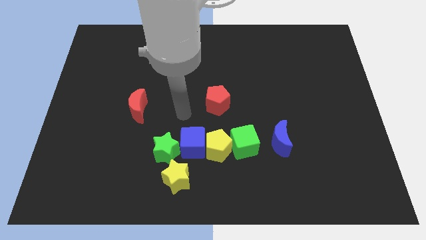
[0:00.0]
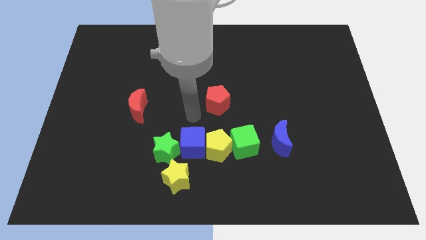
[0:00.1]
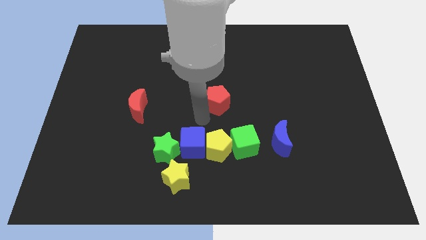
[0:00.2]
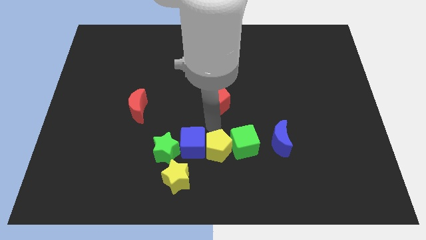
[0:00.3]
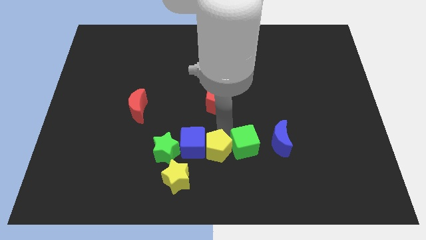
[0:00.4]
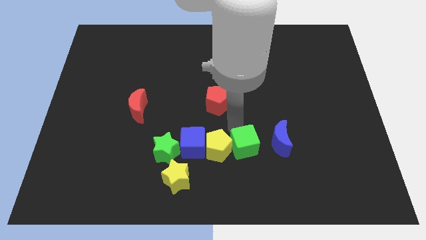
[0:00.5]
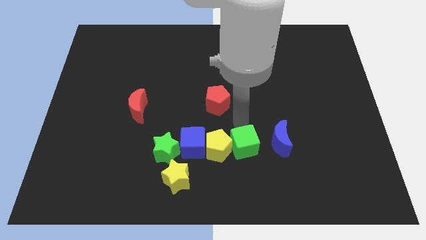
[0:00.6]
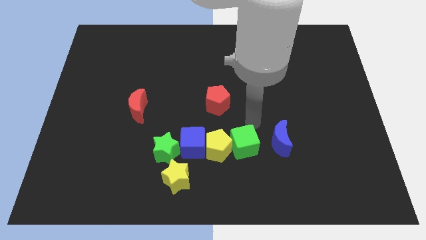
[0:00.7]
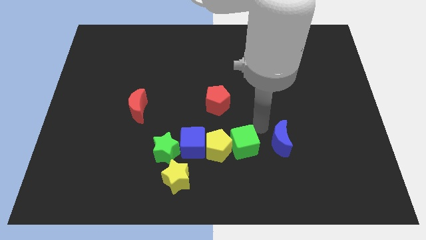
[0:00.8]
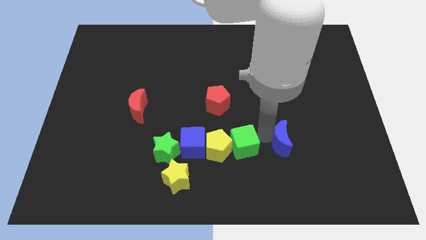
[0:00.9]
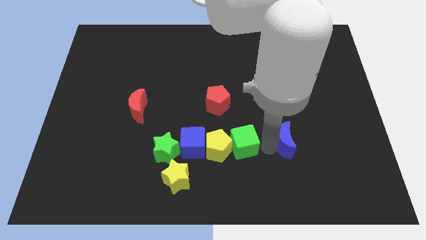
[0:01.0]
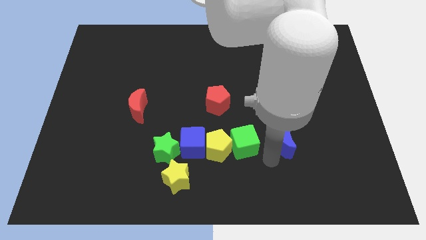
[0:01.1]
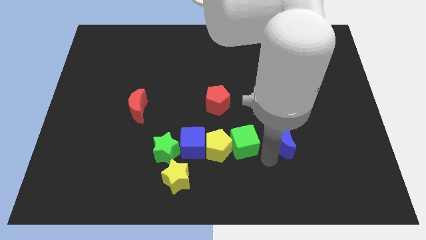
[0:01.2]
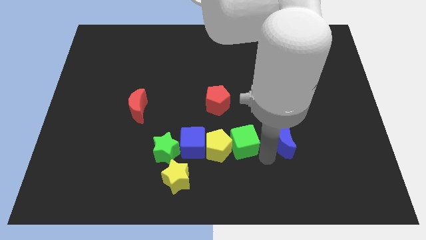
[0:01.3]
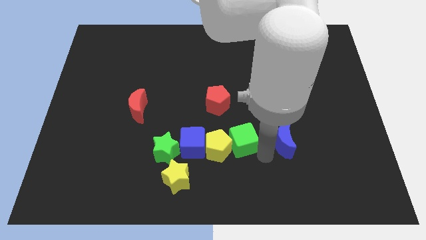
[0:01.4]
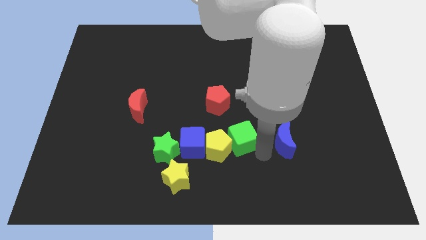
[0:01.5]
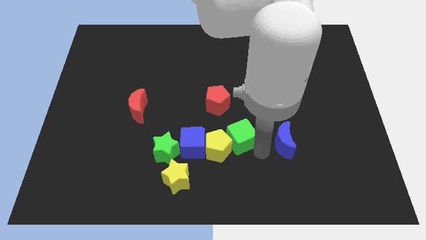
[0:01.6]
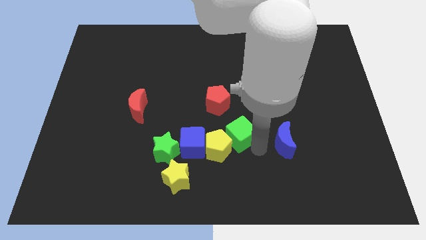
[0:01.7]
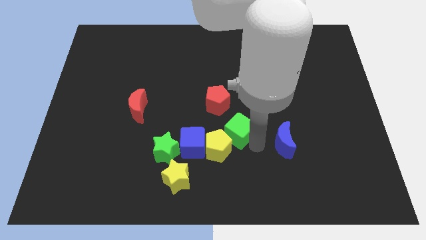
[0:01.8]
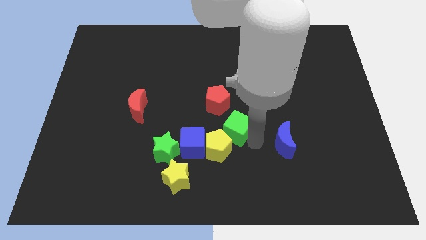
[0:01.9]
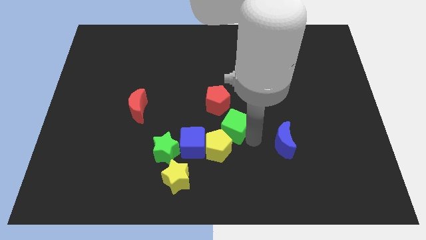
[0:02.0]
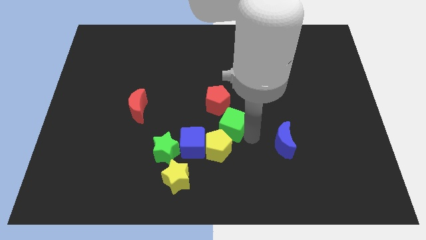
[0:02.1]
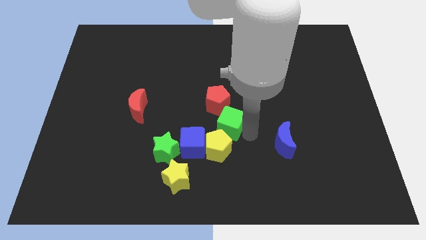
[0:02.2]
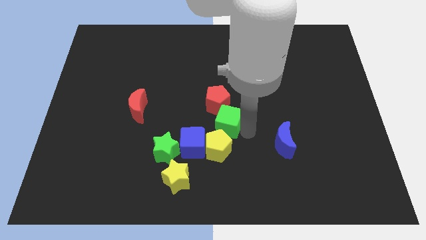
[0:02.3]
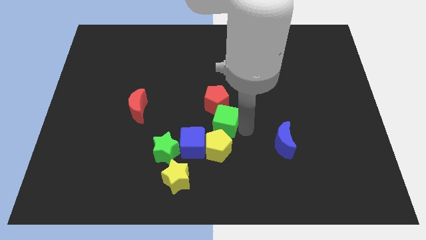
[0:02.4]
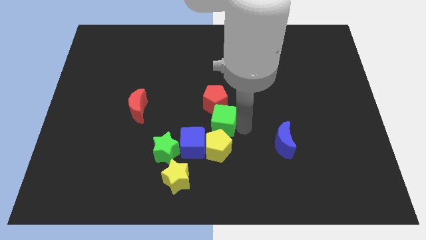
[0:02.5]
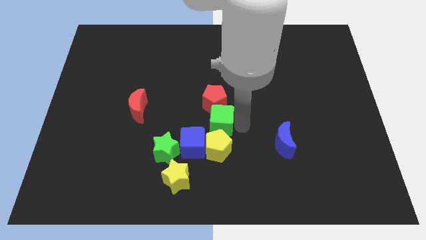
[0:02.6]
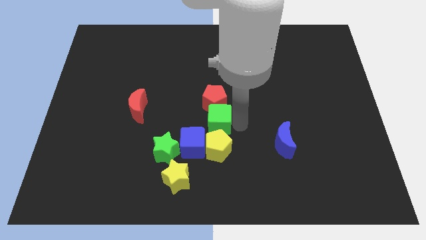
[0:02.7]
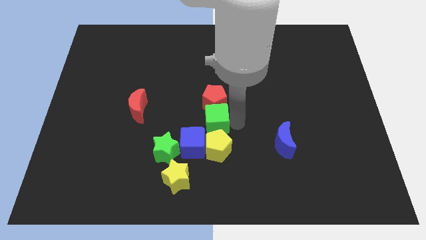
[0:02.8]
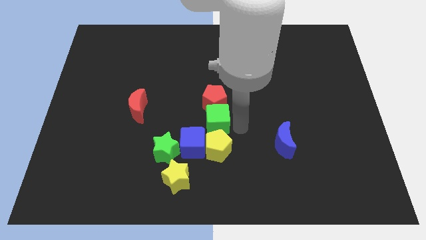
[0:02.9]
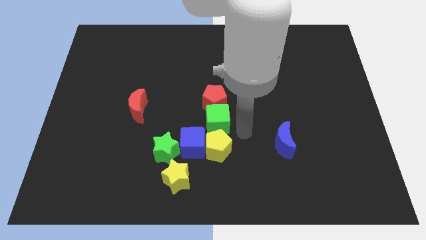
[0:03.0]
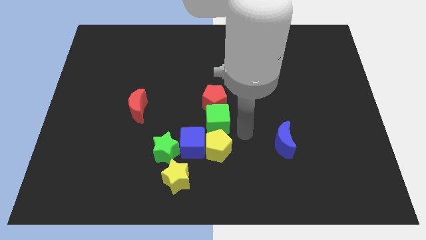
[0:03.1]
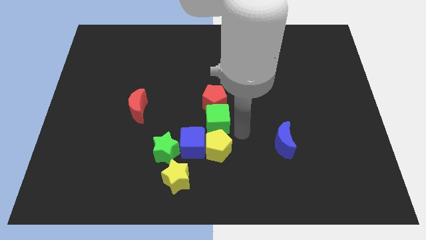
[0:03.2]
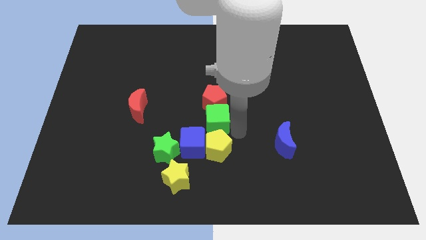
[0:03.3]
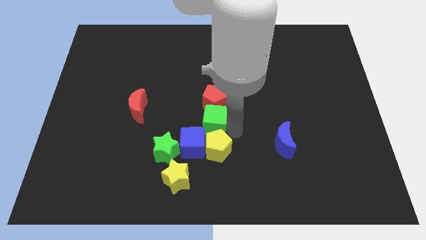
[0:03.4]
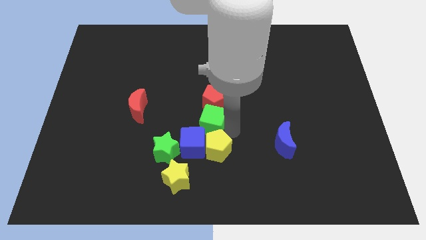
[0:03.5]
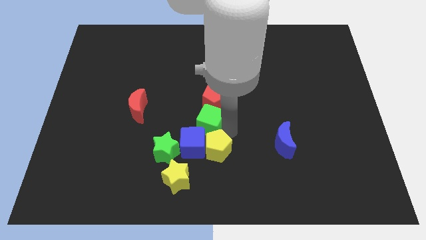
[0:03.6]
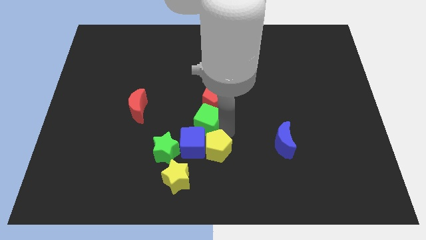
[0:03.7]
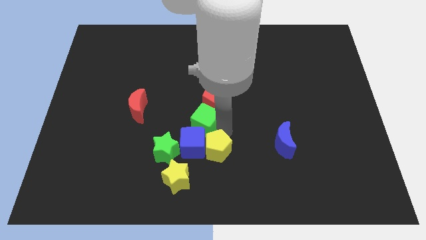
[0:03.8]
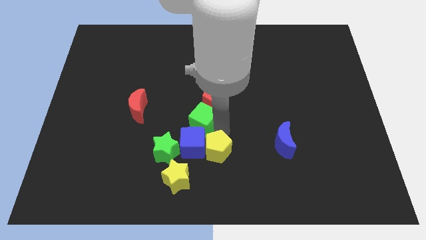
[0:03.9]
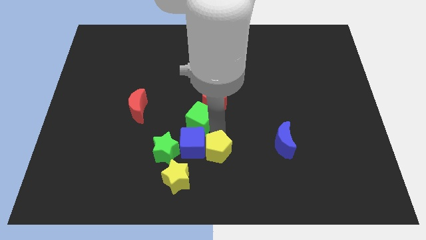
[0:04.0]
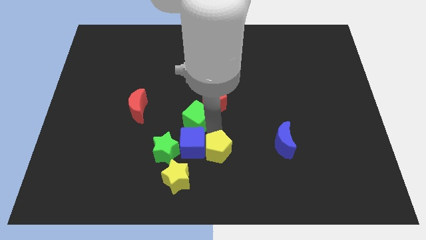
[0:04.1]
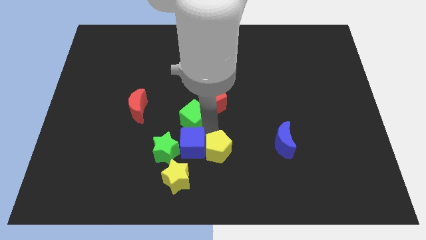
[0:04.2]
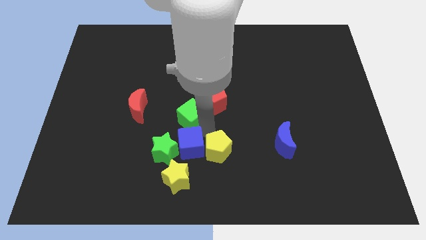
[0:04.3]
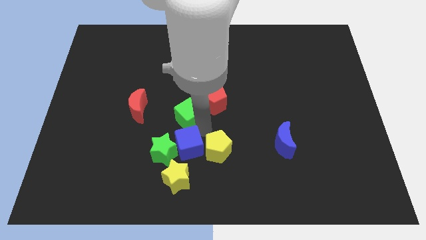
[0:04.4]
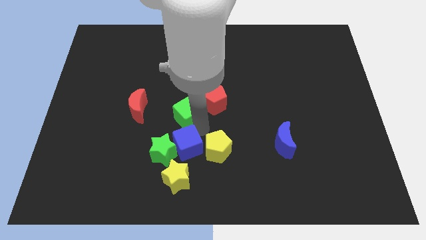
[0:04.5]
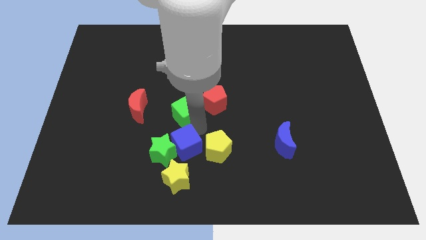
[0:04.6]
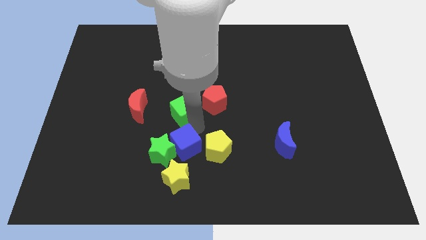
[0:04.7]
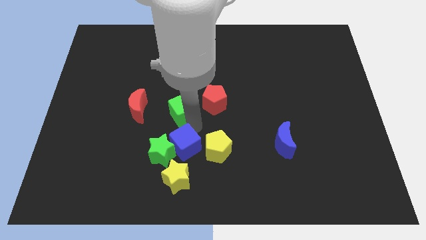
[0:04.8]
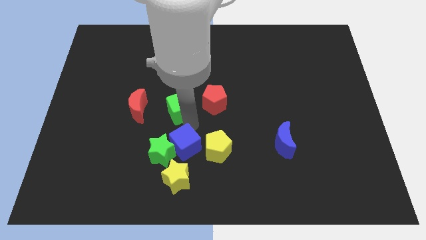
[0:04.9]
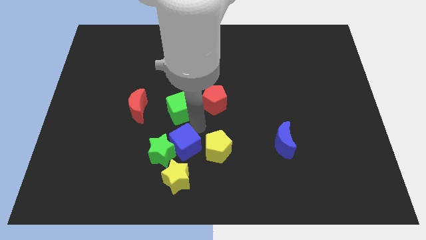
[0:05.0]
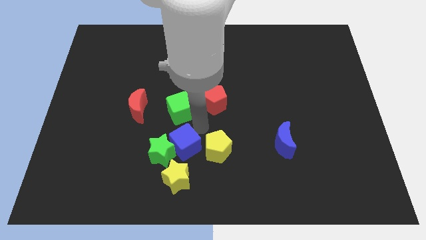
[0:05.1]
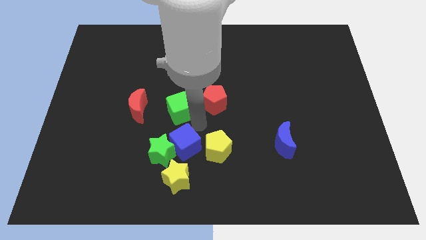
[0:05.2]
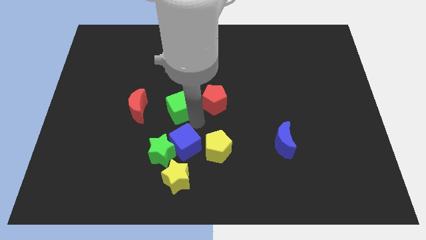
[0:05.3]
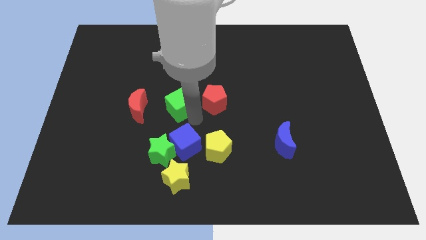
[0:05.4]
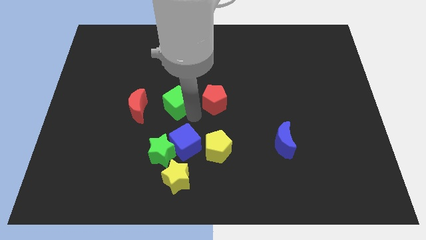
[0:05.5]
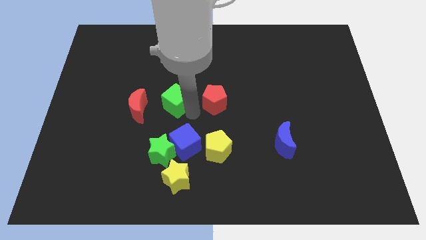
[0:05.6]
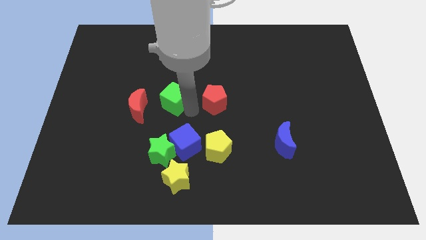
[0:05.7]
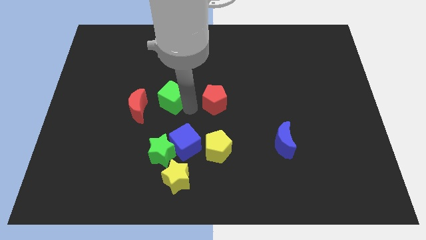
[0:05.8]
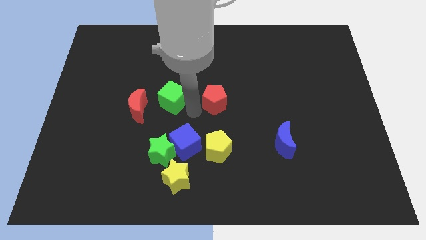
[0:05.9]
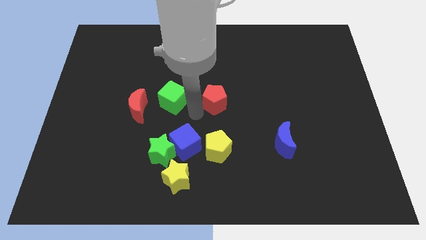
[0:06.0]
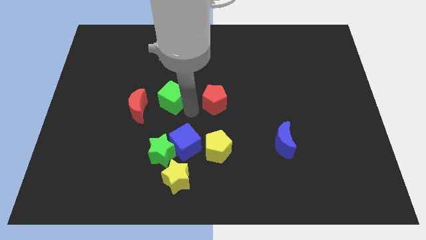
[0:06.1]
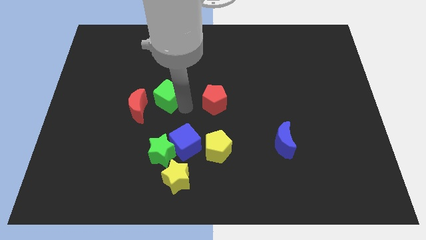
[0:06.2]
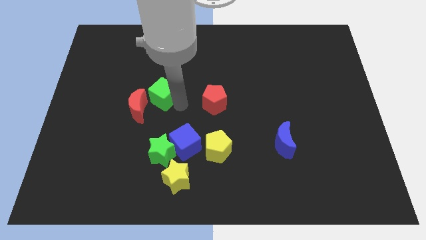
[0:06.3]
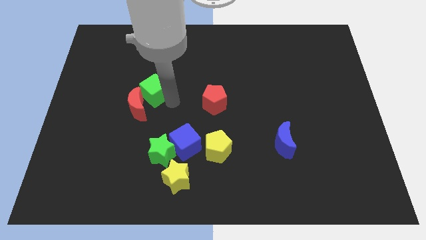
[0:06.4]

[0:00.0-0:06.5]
put the green cube to the top side of the red moon

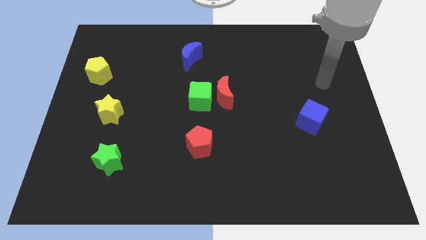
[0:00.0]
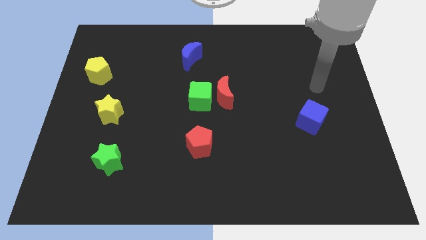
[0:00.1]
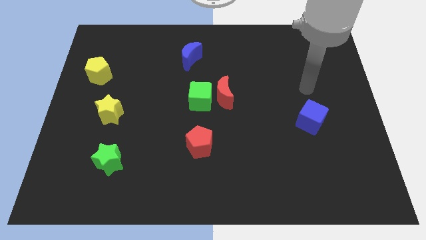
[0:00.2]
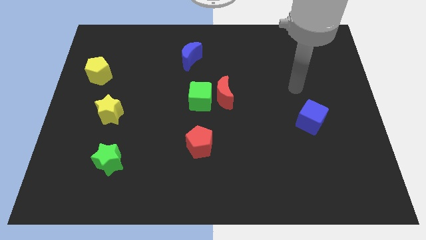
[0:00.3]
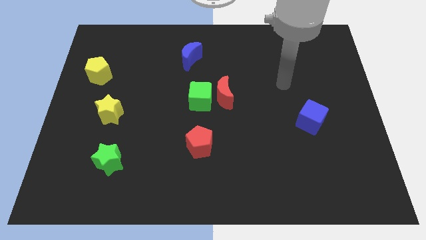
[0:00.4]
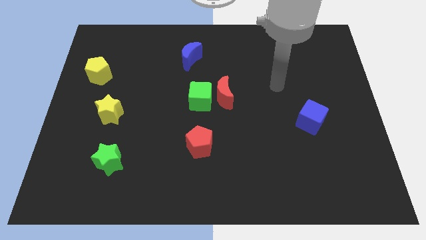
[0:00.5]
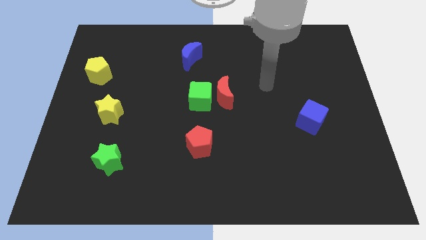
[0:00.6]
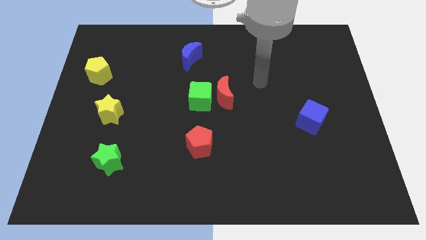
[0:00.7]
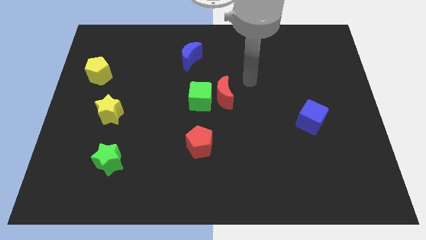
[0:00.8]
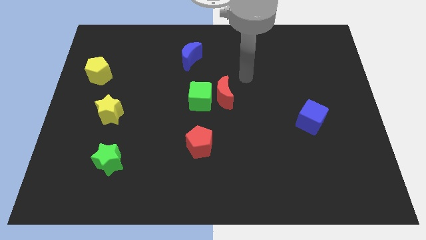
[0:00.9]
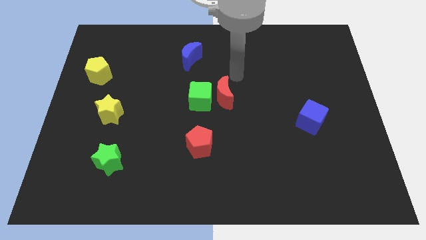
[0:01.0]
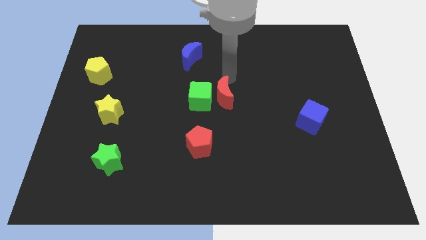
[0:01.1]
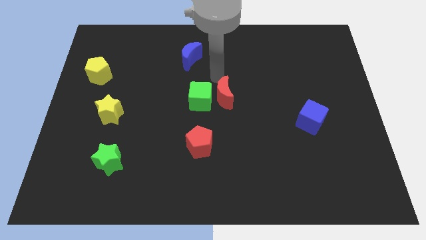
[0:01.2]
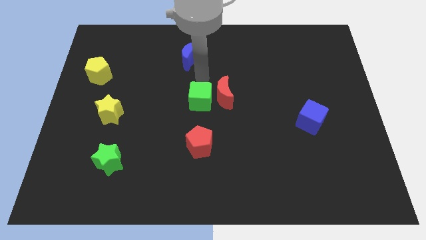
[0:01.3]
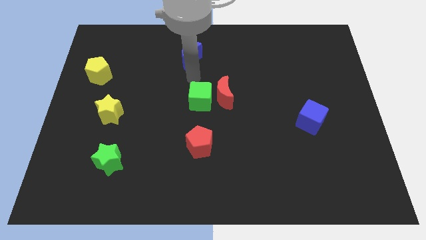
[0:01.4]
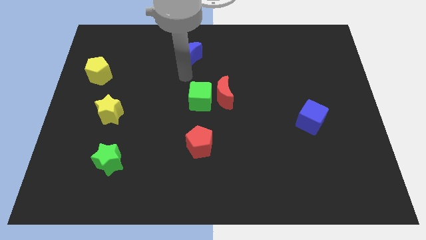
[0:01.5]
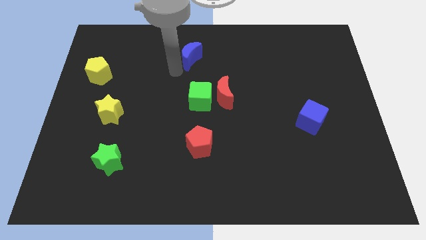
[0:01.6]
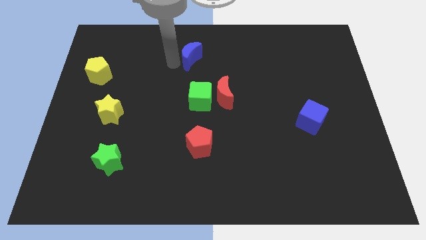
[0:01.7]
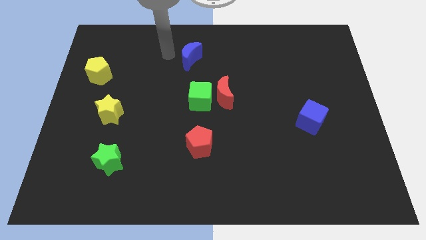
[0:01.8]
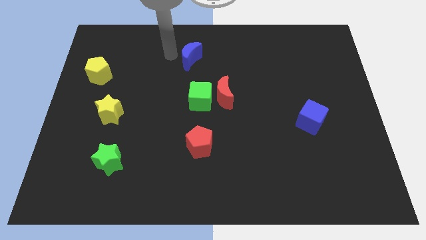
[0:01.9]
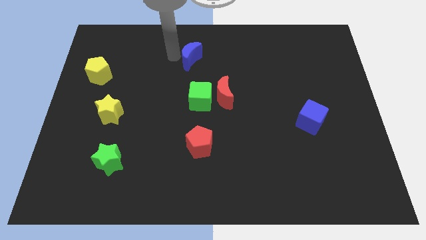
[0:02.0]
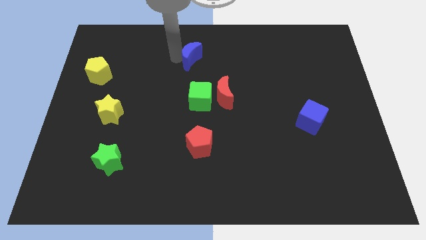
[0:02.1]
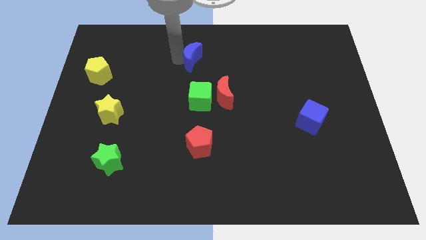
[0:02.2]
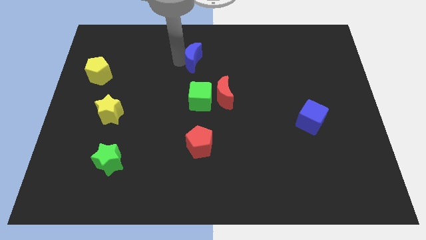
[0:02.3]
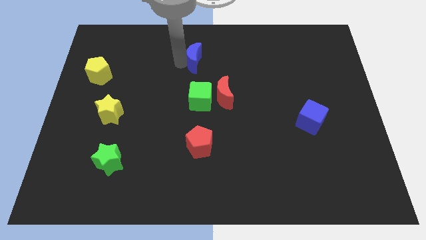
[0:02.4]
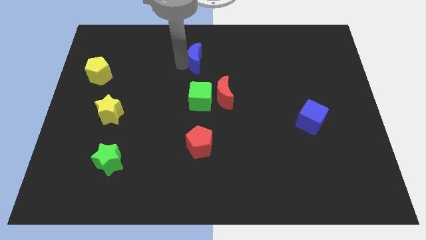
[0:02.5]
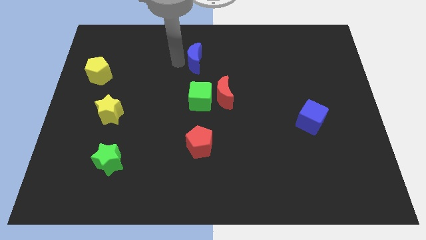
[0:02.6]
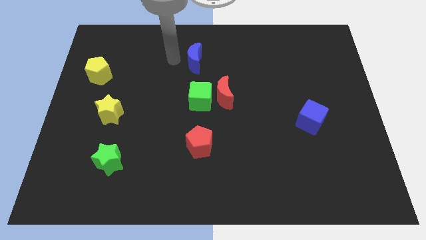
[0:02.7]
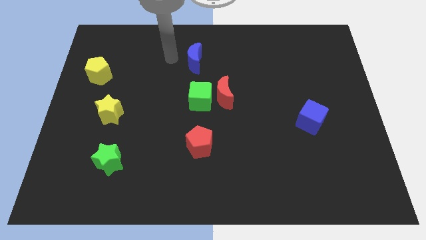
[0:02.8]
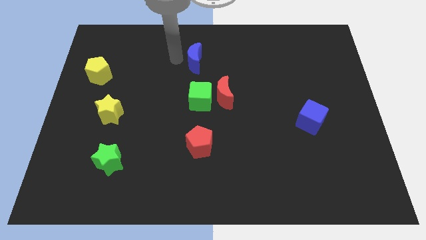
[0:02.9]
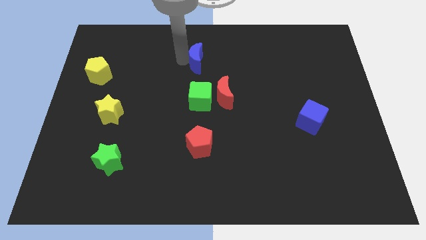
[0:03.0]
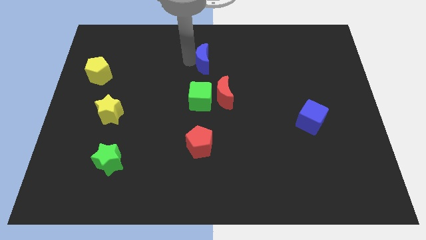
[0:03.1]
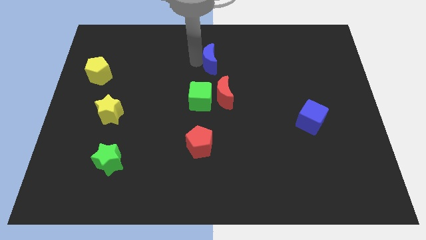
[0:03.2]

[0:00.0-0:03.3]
move the blue moon above the red moon
